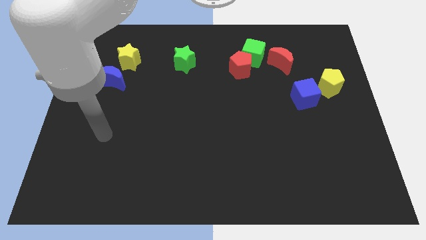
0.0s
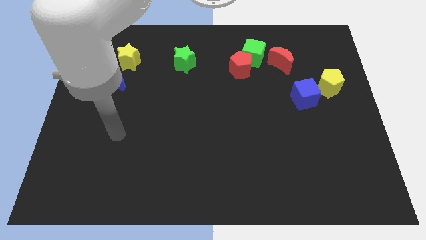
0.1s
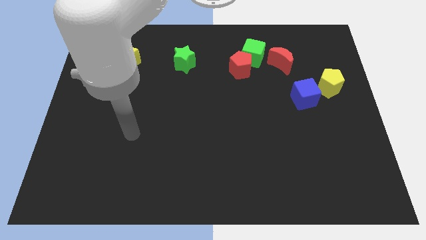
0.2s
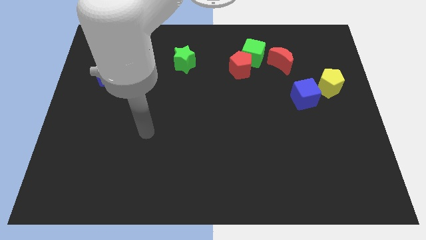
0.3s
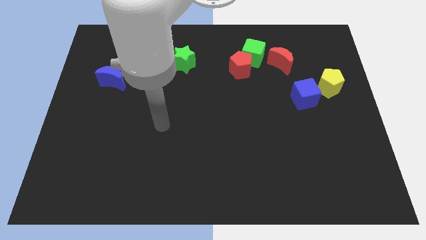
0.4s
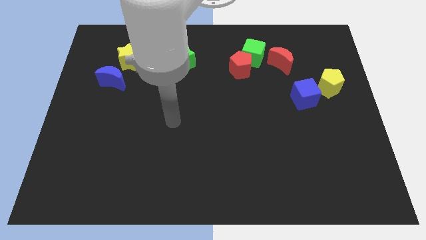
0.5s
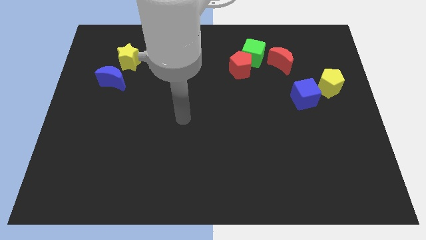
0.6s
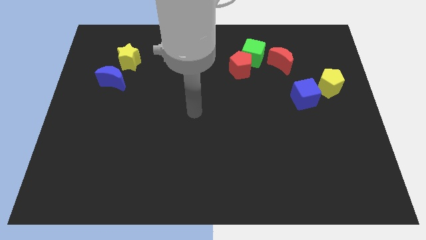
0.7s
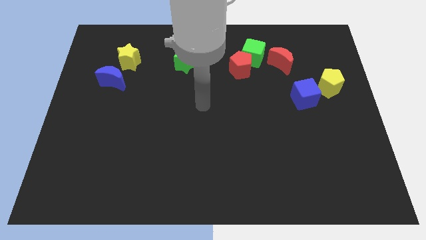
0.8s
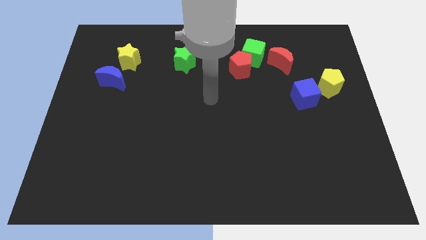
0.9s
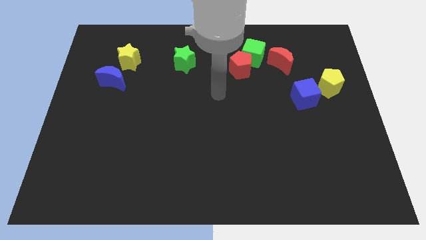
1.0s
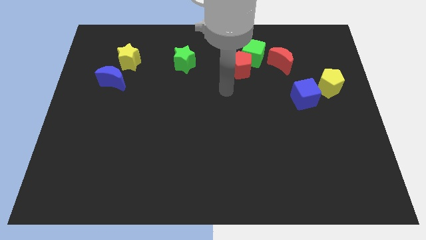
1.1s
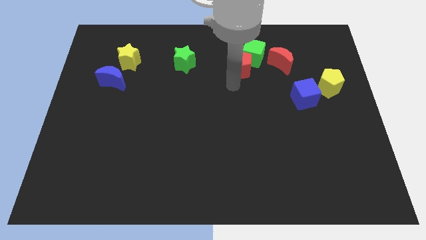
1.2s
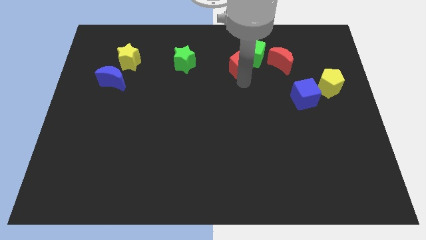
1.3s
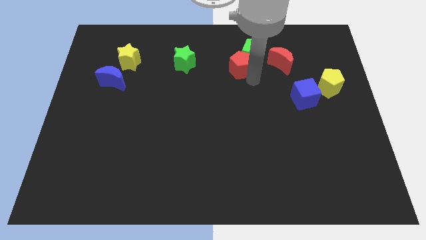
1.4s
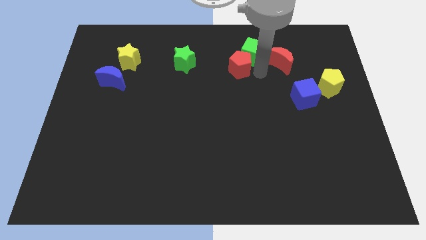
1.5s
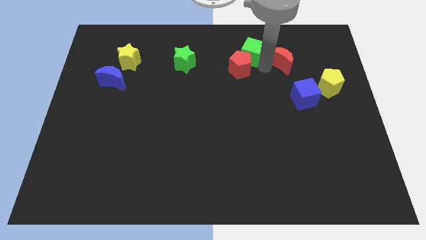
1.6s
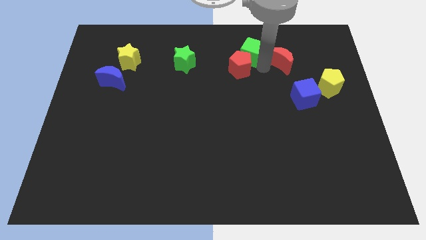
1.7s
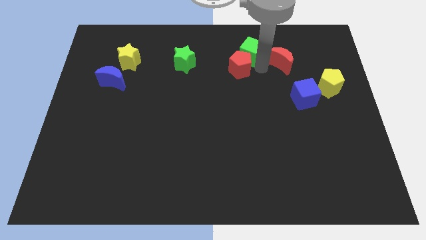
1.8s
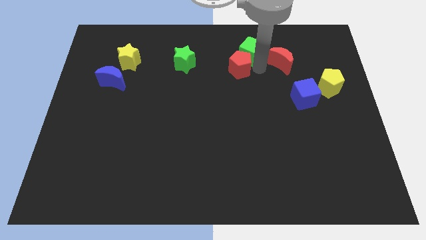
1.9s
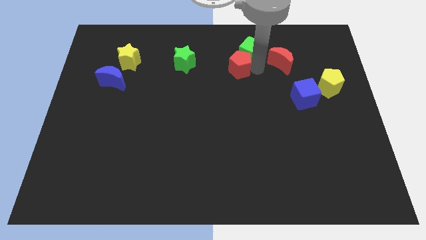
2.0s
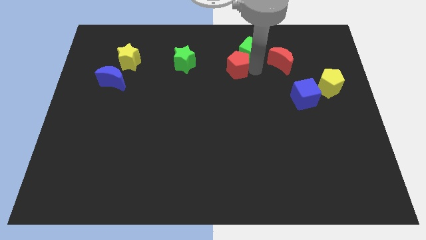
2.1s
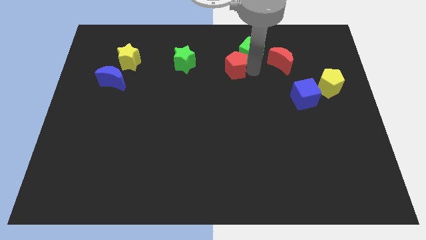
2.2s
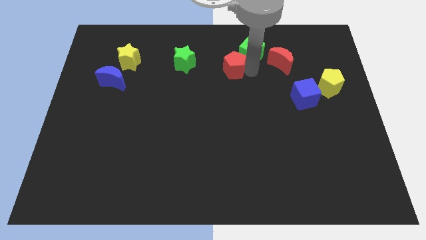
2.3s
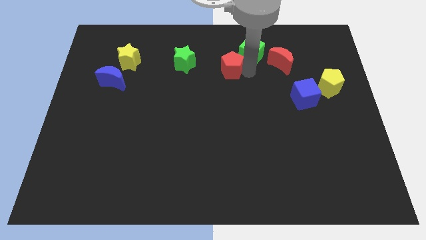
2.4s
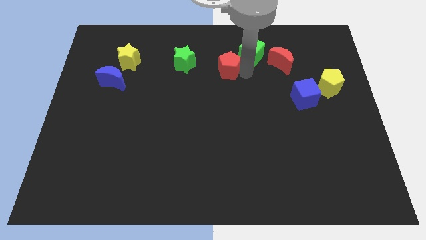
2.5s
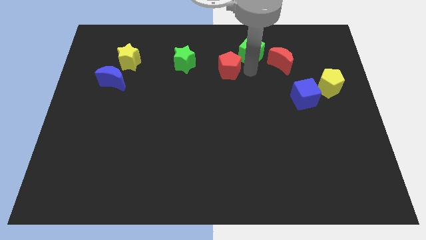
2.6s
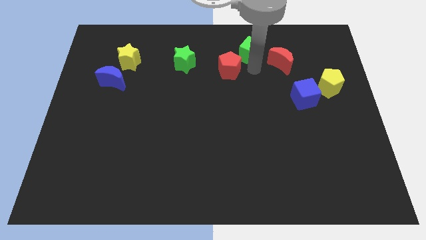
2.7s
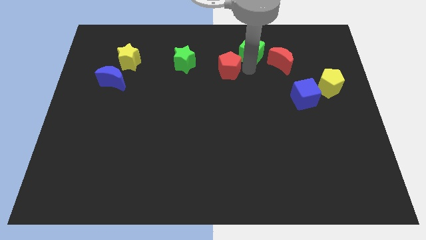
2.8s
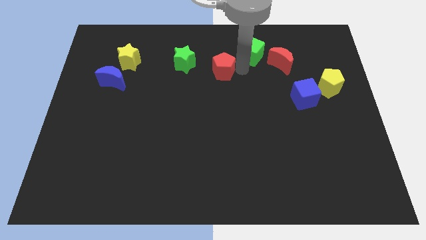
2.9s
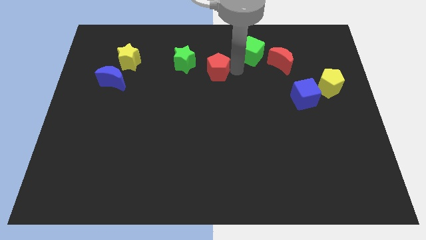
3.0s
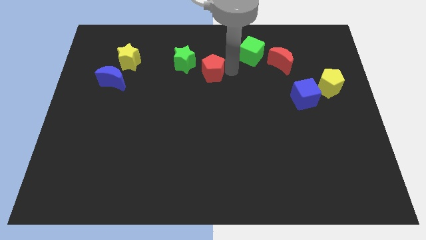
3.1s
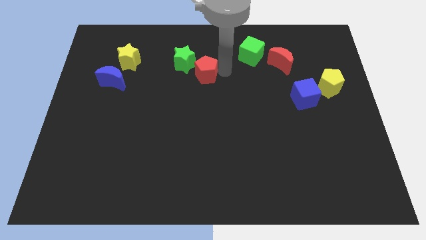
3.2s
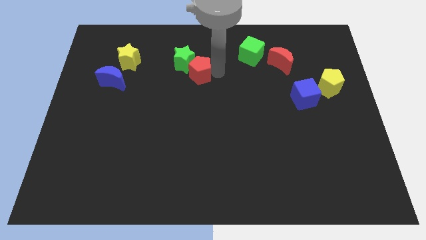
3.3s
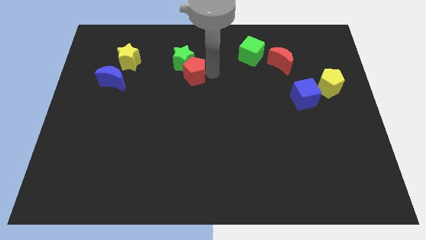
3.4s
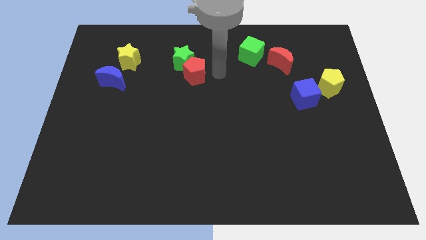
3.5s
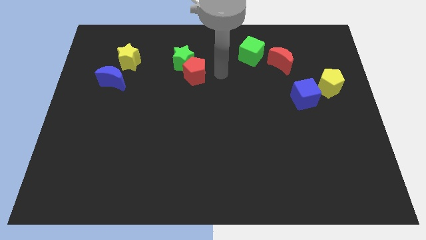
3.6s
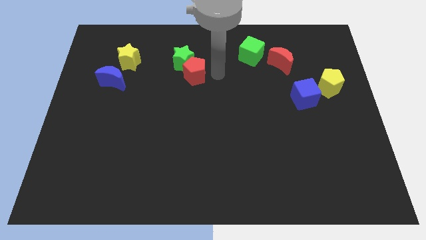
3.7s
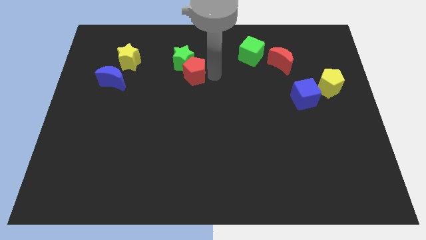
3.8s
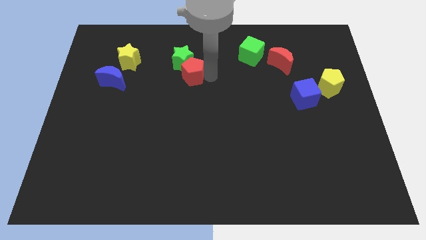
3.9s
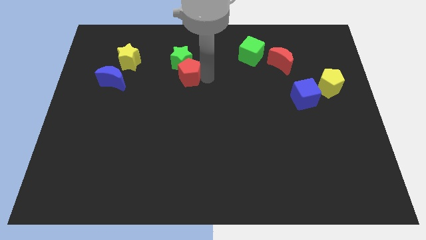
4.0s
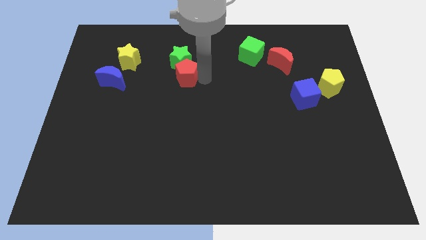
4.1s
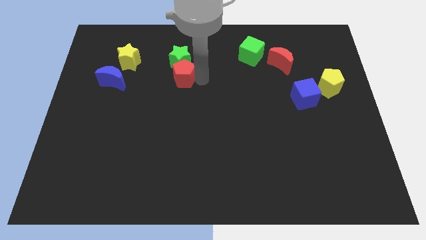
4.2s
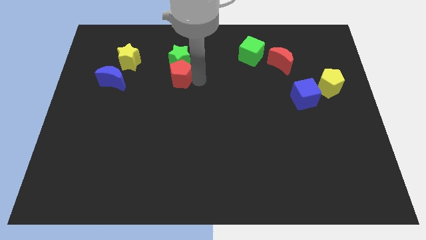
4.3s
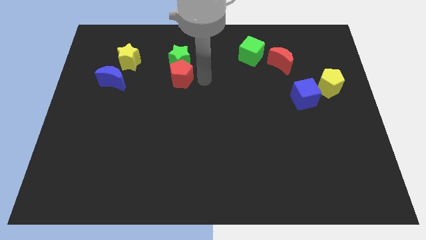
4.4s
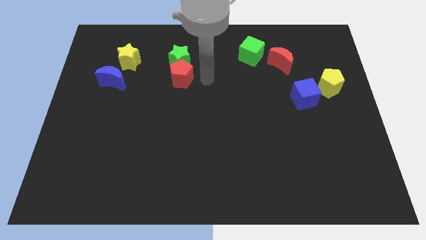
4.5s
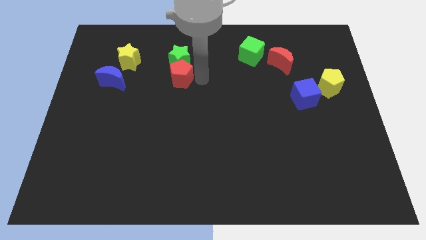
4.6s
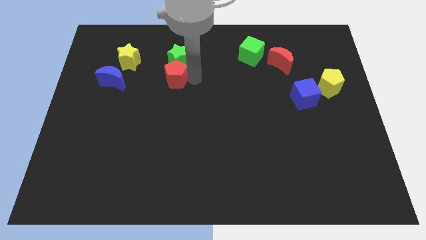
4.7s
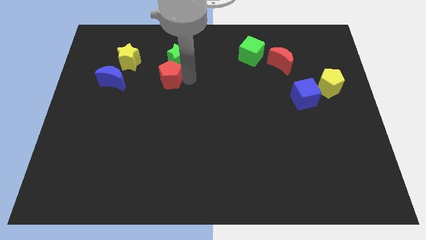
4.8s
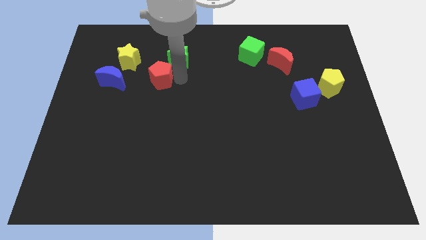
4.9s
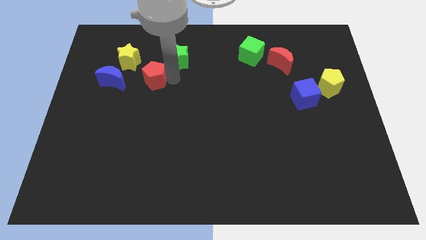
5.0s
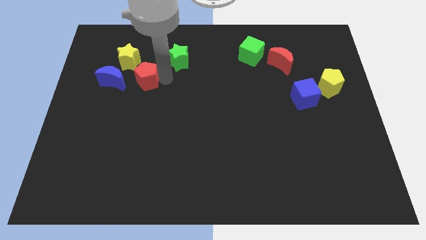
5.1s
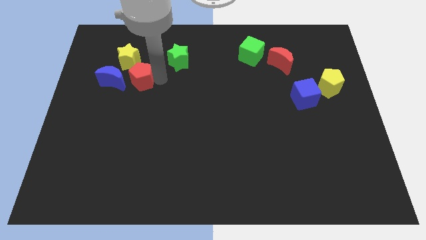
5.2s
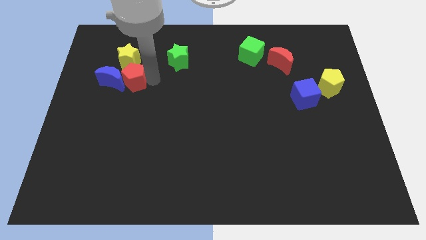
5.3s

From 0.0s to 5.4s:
slide the red pentagon close to the blue moon

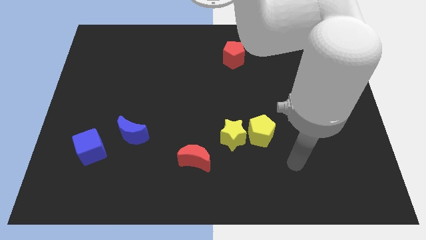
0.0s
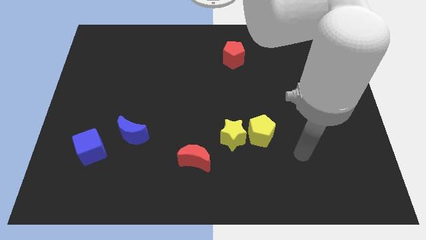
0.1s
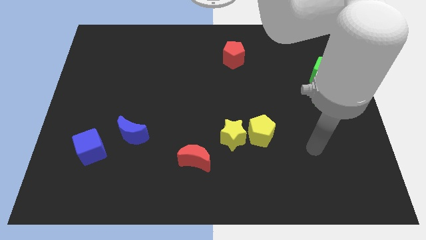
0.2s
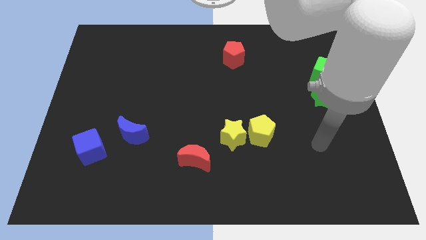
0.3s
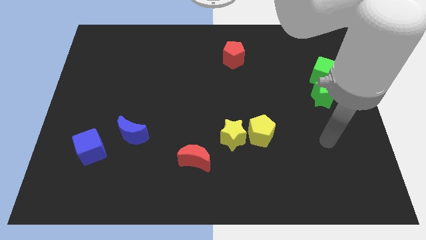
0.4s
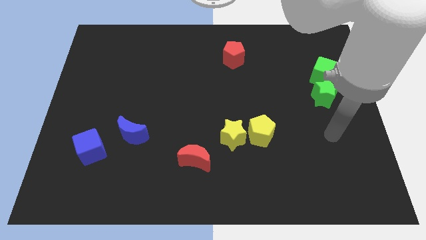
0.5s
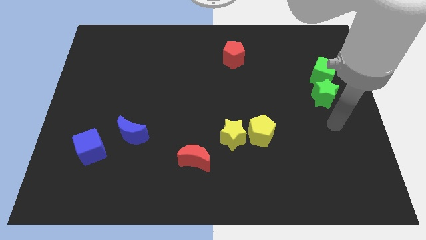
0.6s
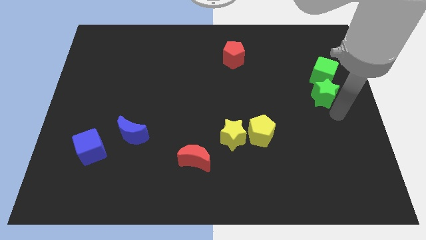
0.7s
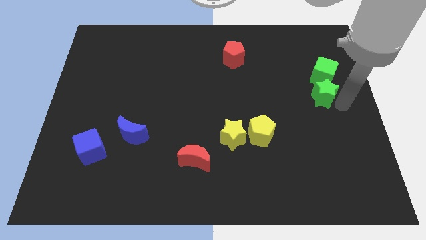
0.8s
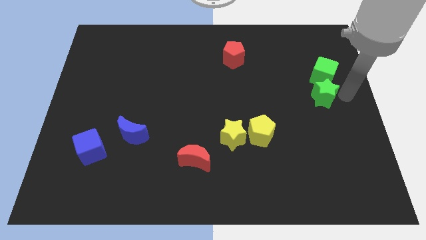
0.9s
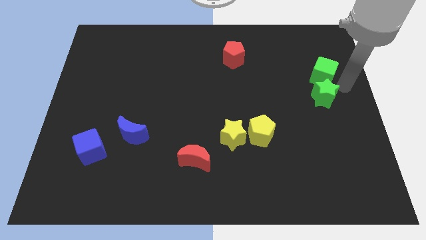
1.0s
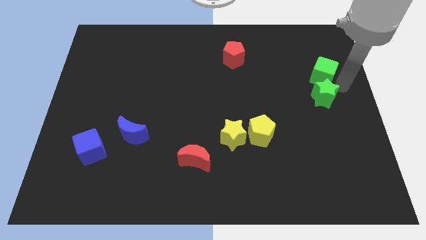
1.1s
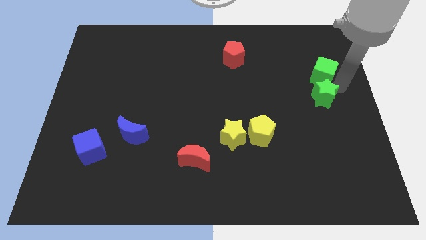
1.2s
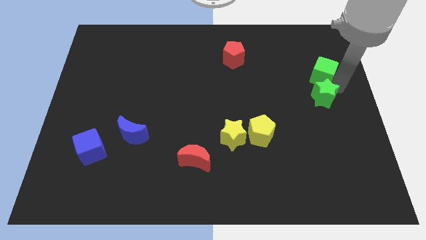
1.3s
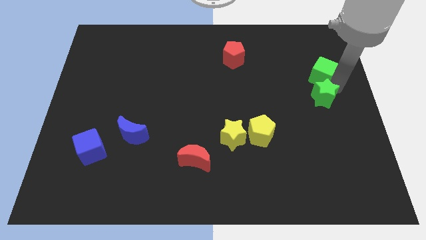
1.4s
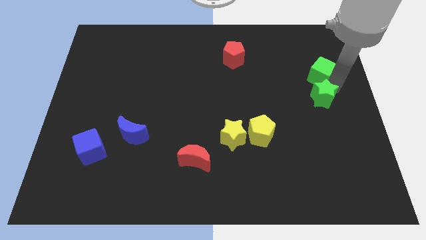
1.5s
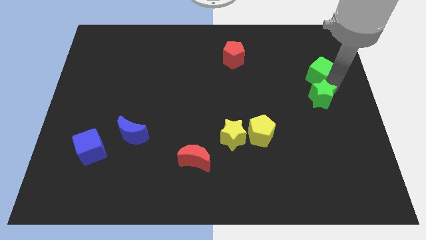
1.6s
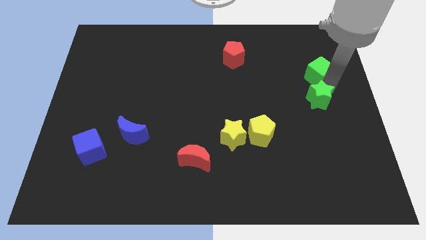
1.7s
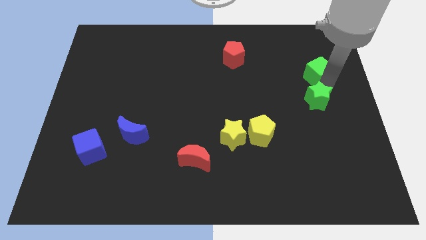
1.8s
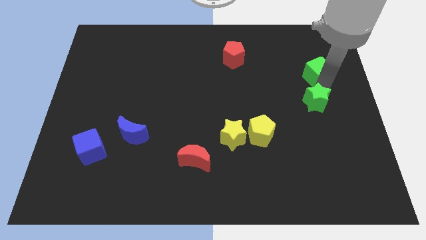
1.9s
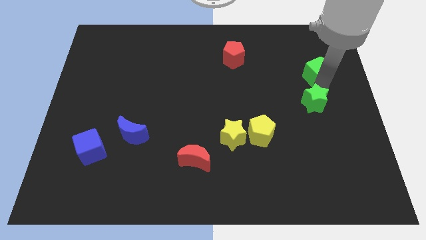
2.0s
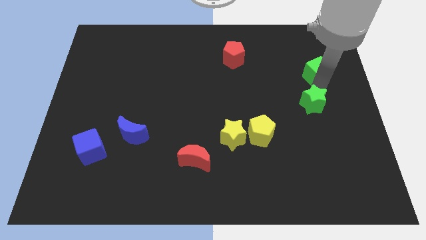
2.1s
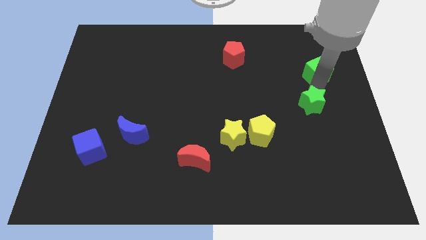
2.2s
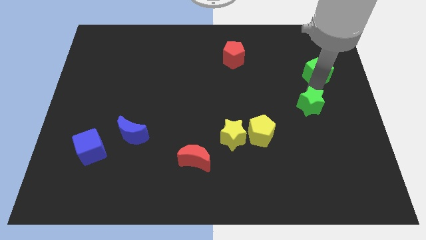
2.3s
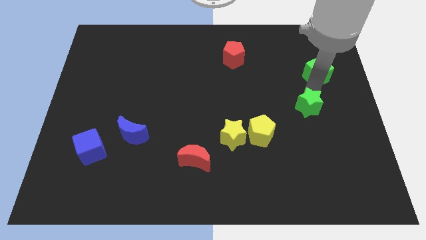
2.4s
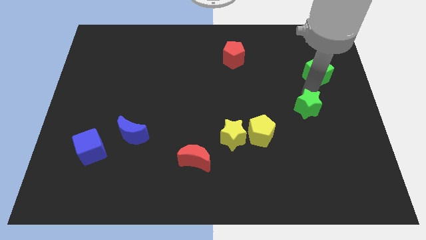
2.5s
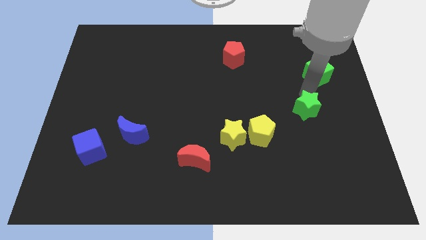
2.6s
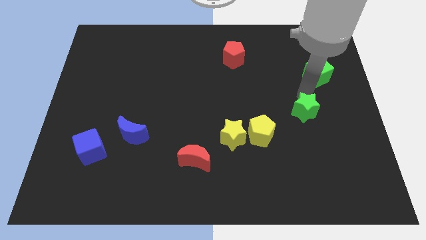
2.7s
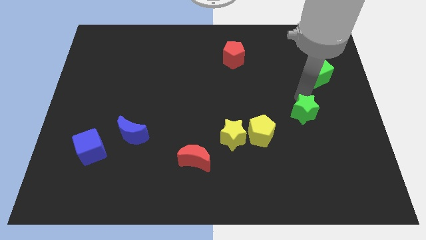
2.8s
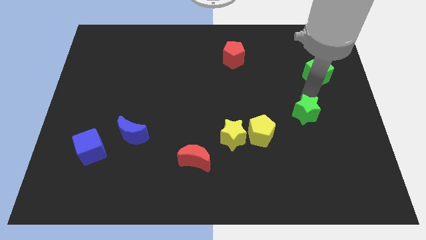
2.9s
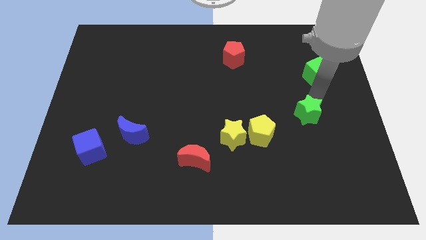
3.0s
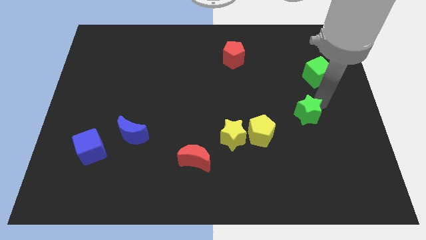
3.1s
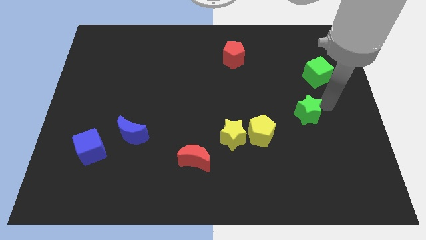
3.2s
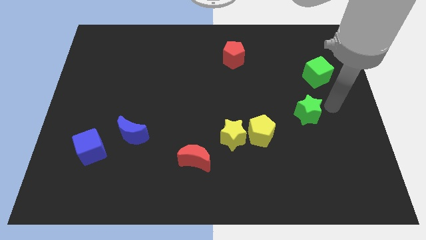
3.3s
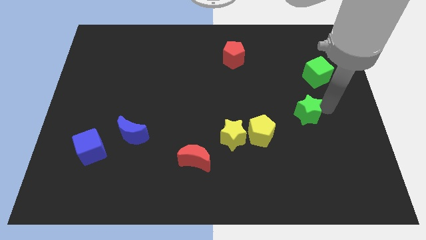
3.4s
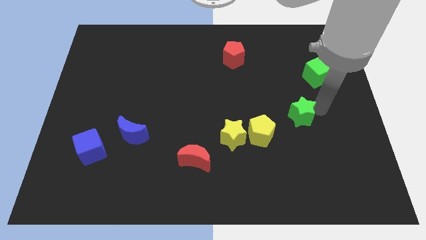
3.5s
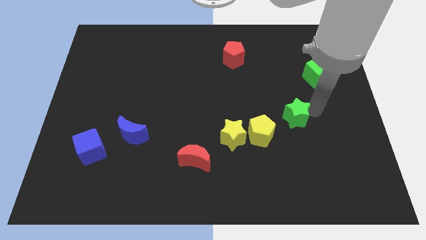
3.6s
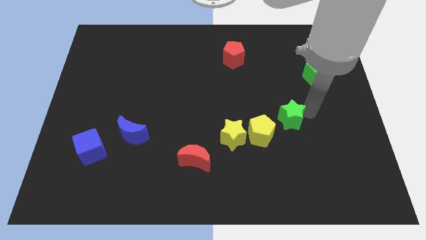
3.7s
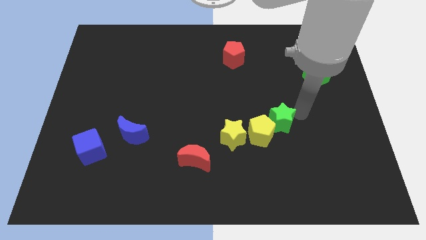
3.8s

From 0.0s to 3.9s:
slide the green star to the yellow pentagon
